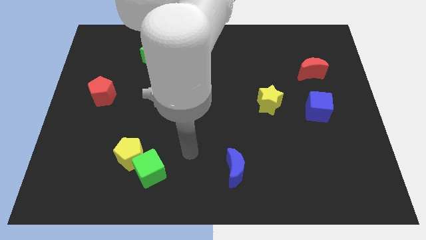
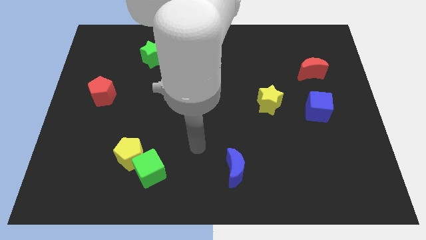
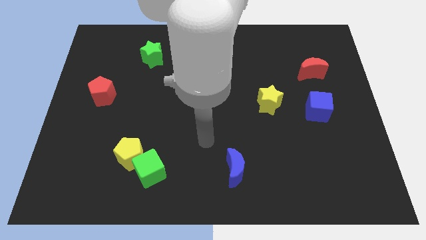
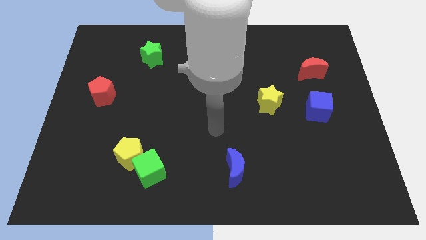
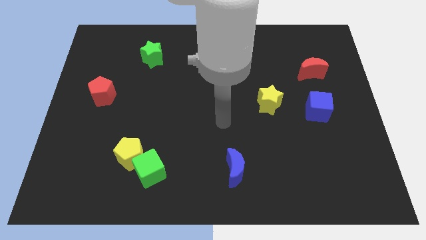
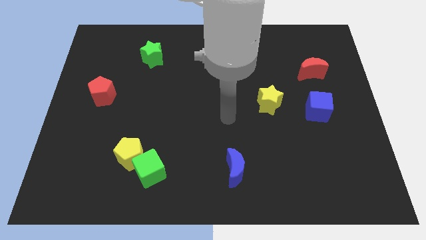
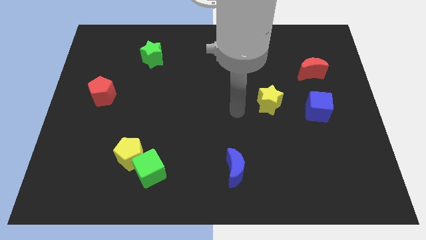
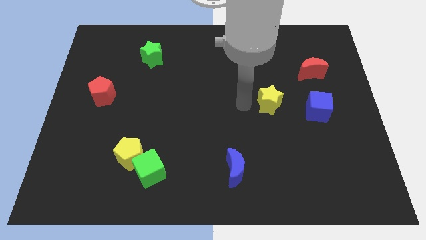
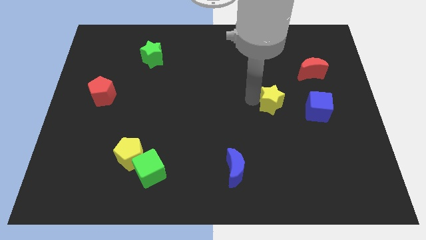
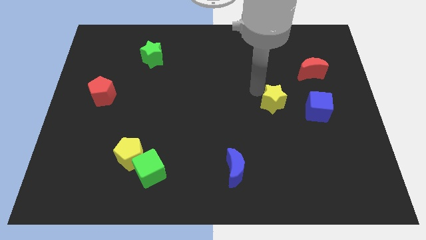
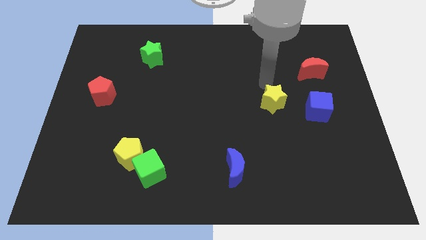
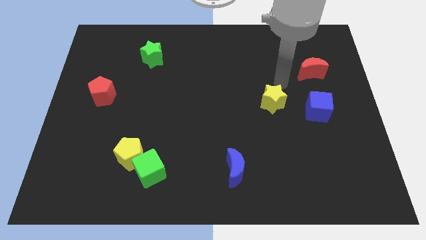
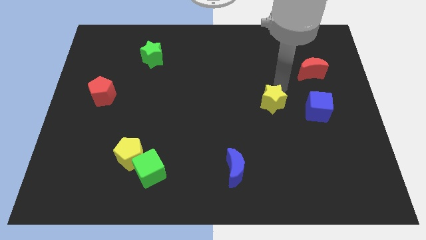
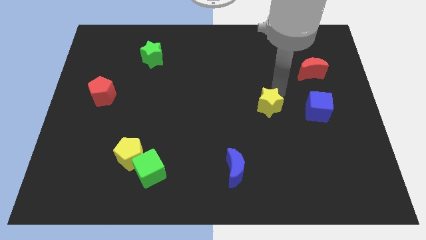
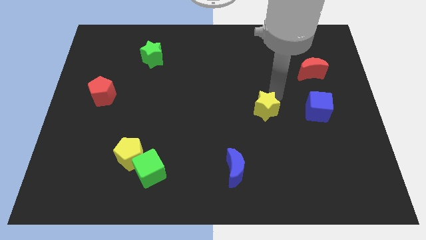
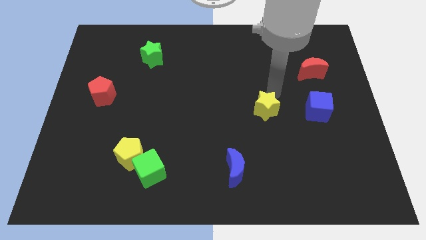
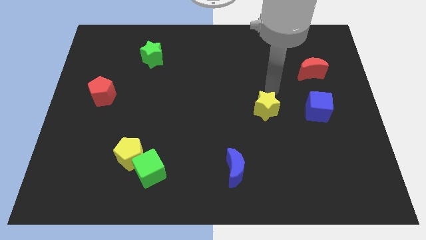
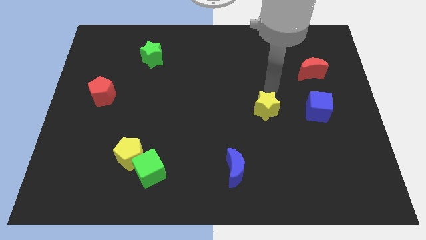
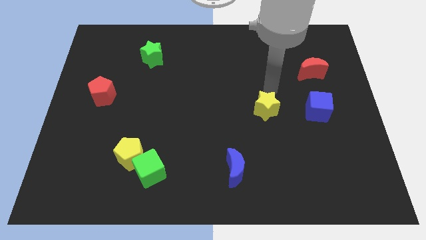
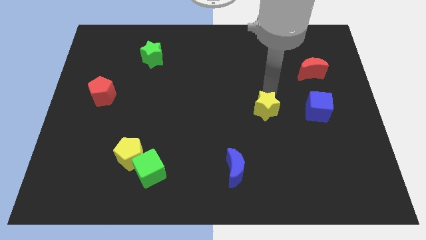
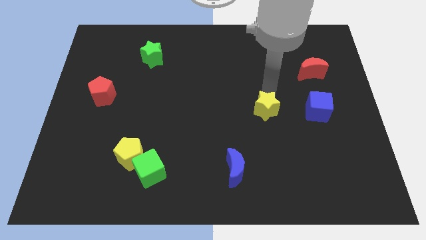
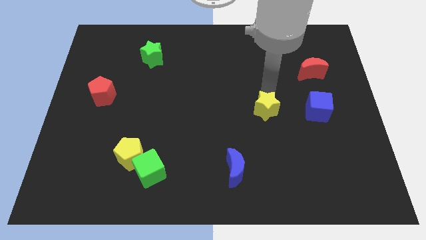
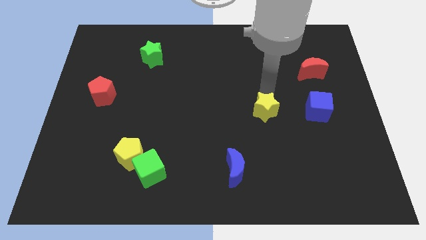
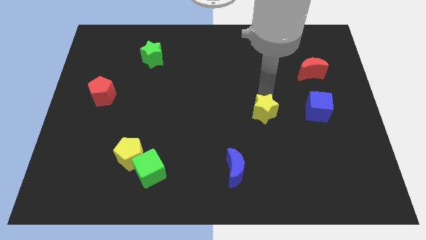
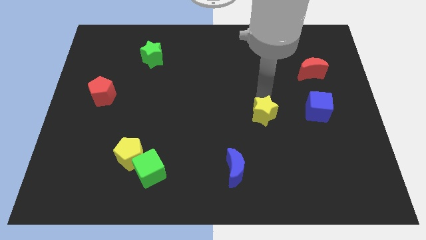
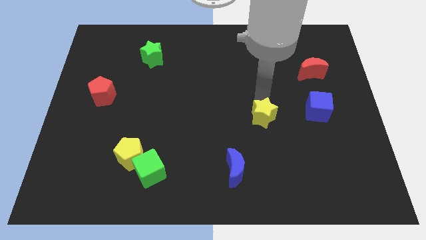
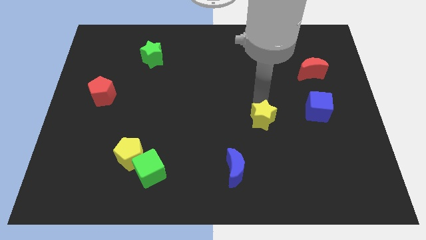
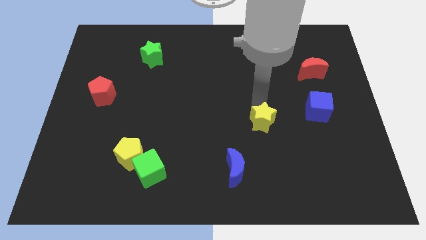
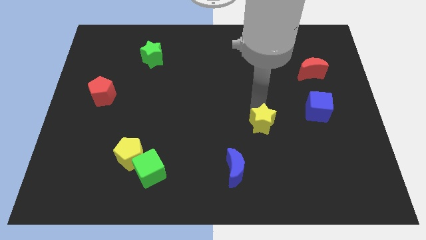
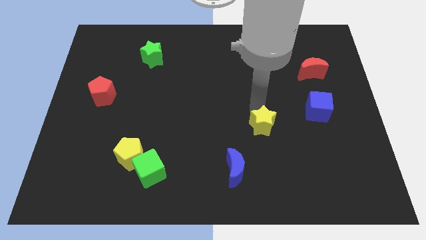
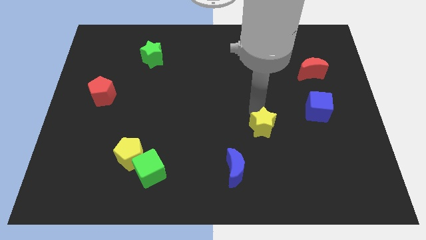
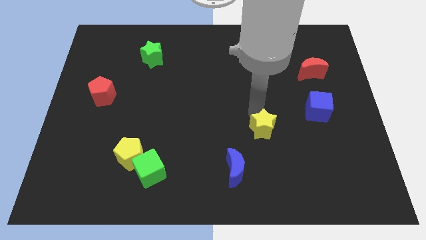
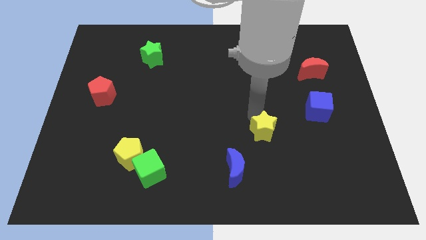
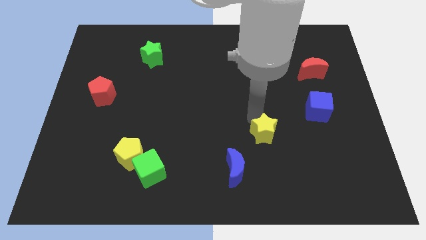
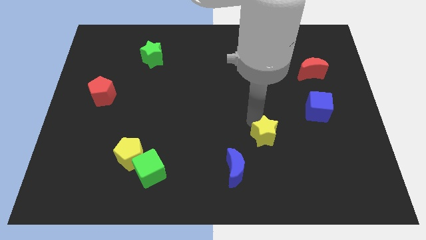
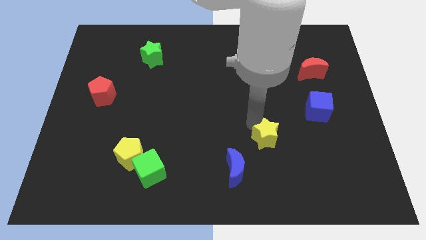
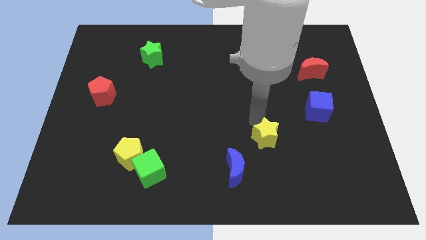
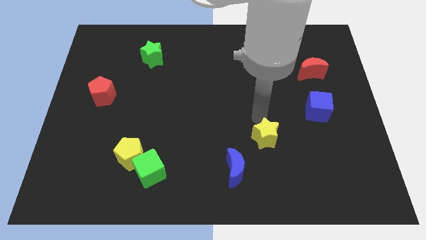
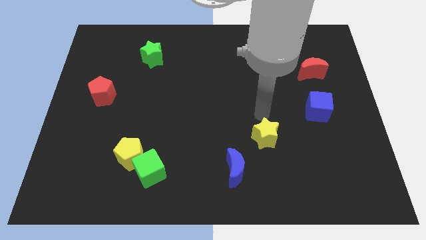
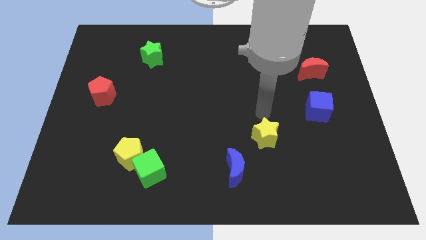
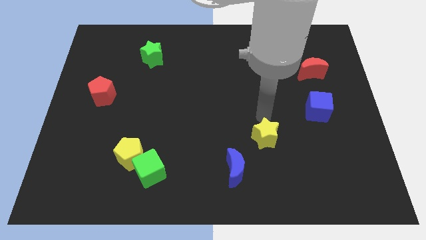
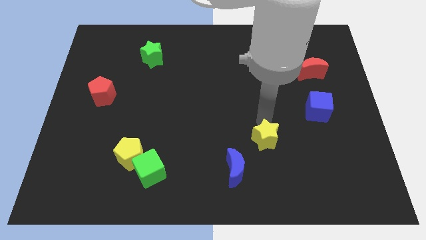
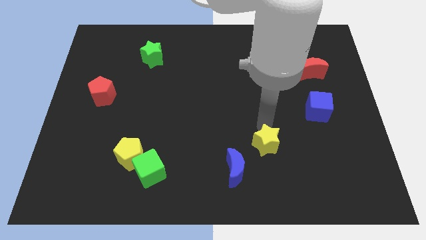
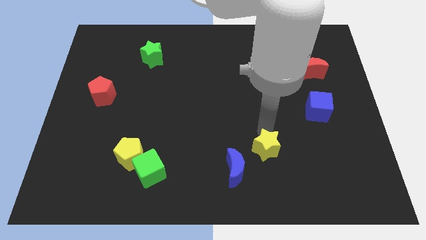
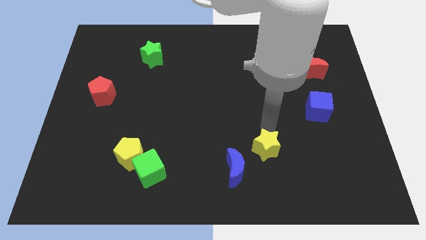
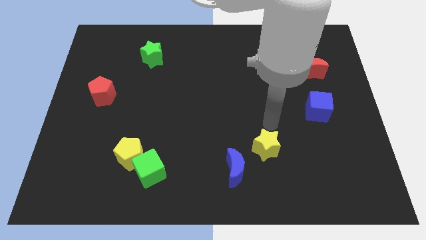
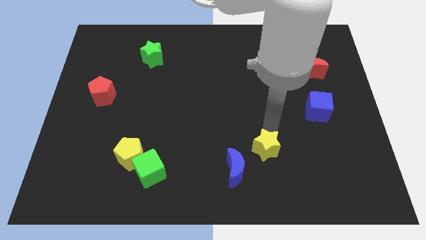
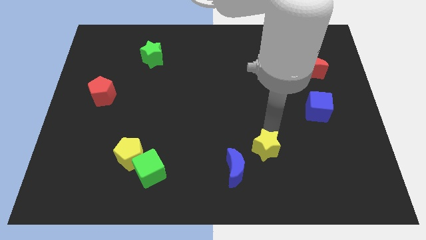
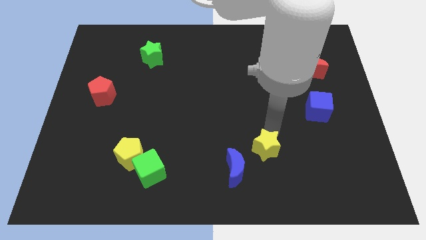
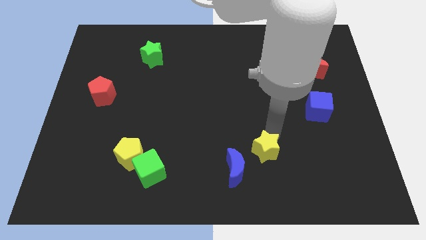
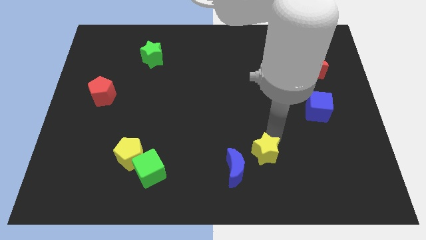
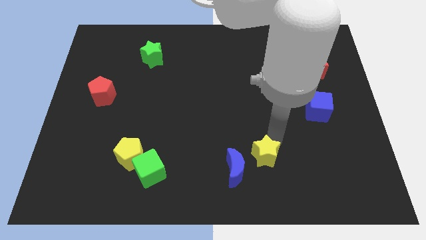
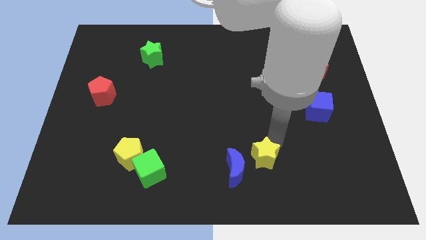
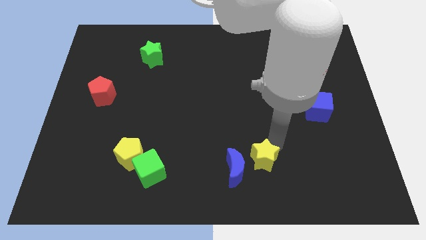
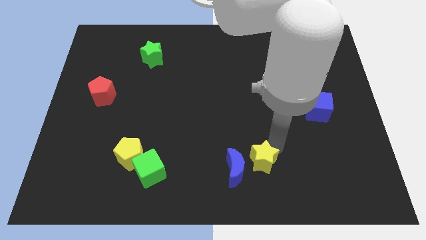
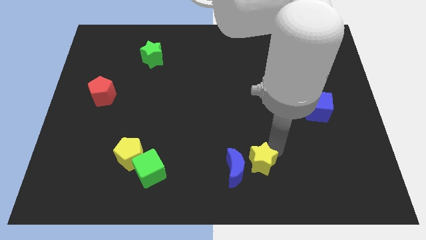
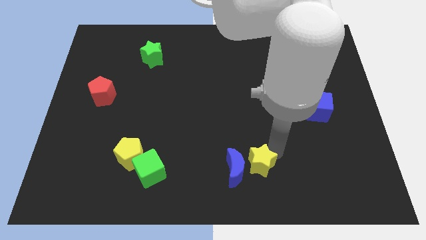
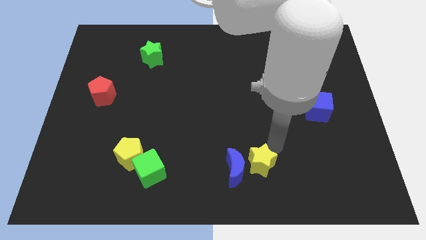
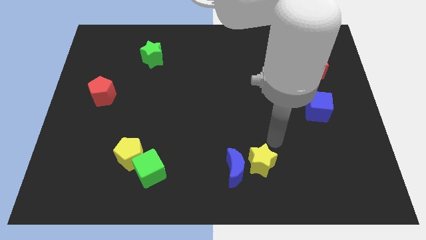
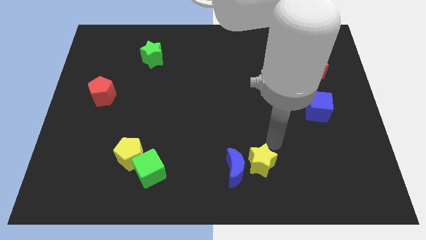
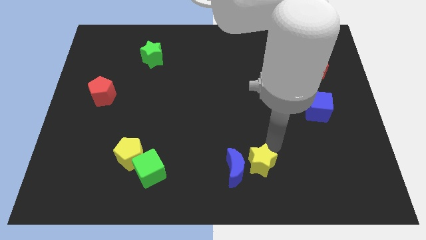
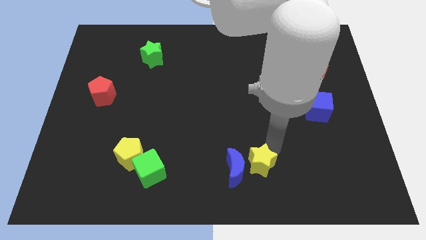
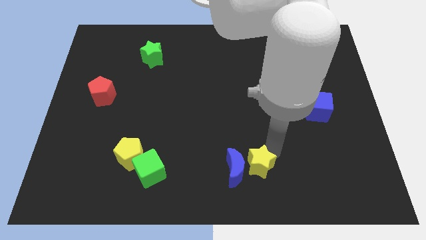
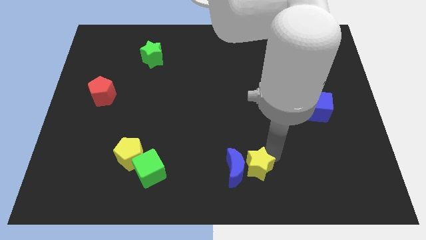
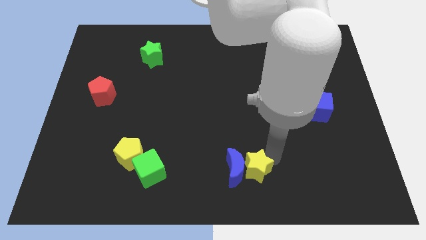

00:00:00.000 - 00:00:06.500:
slide the yellow star to the bottom

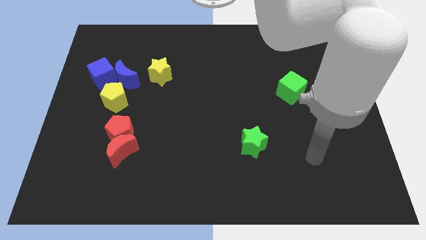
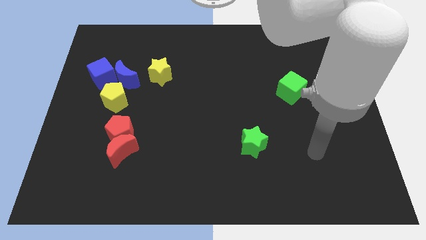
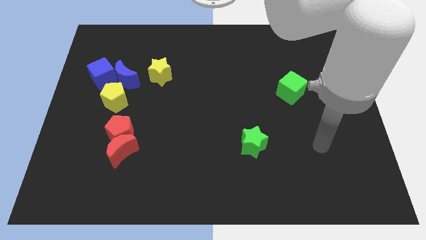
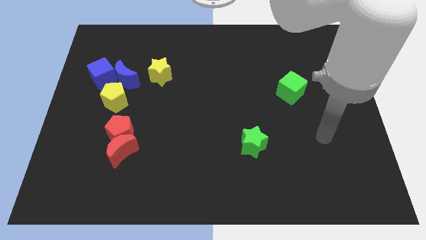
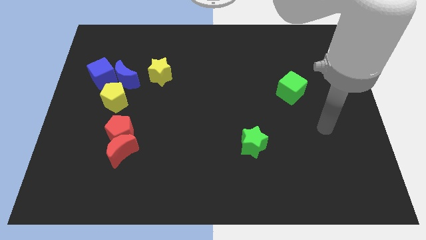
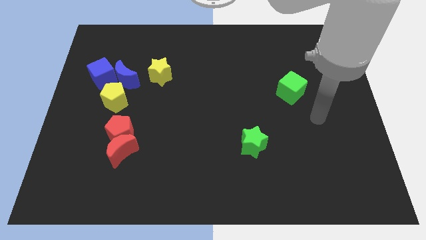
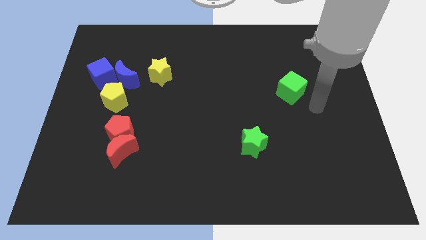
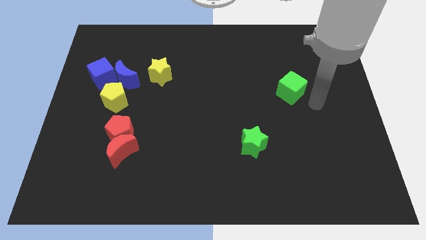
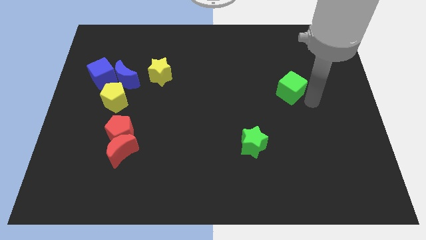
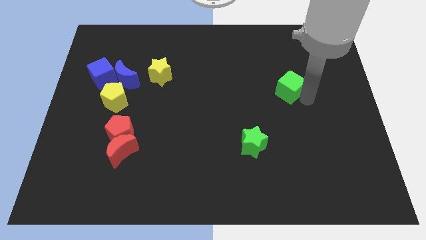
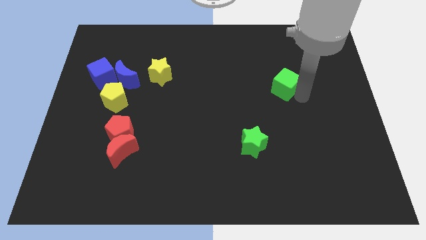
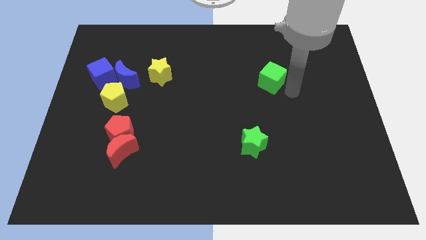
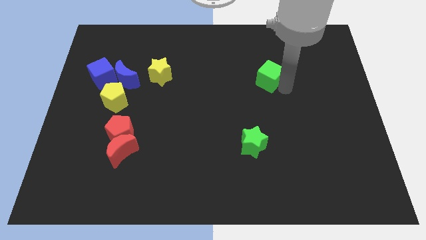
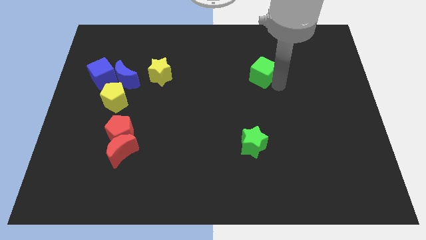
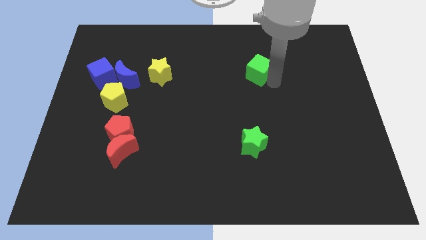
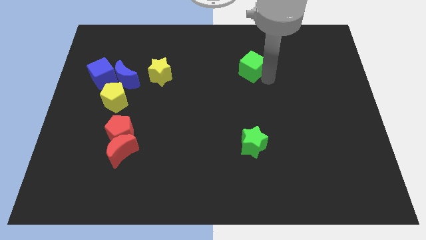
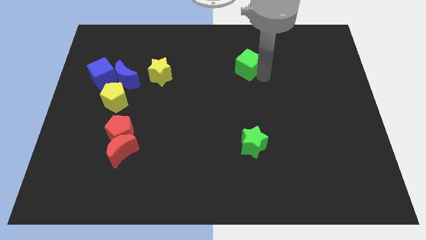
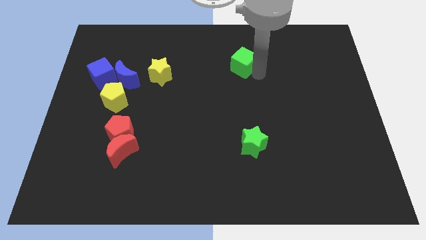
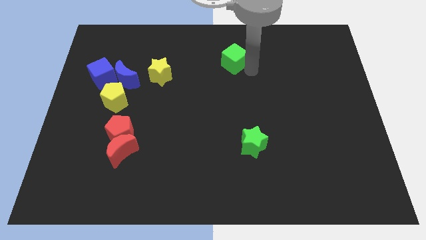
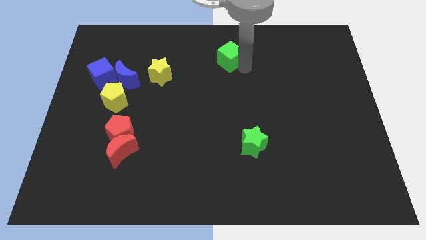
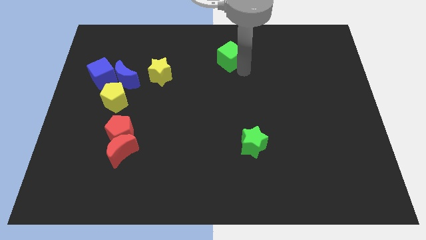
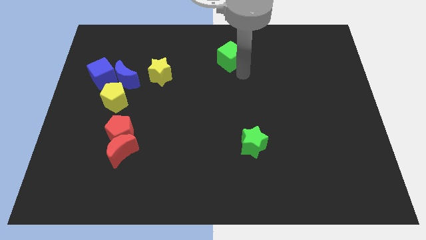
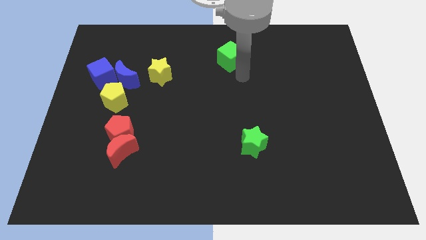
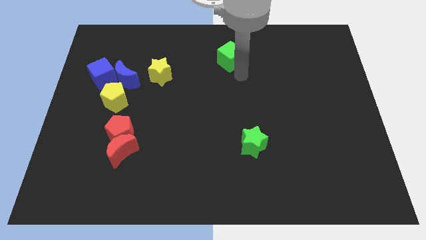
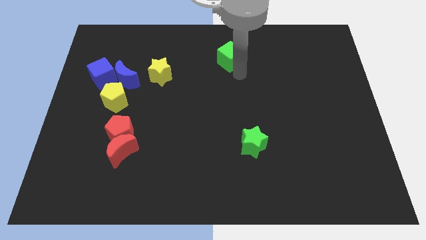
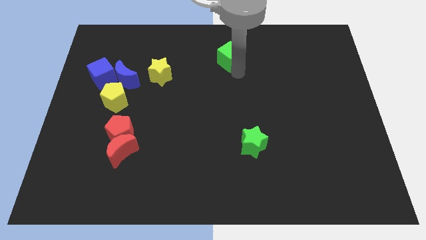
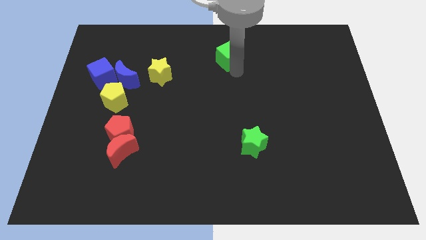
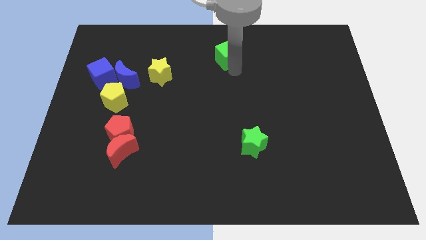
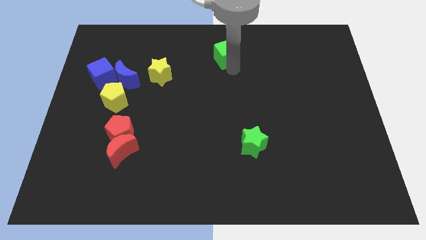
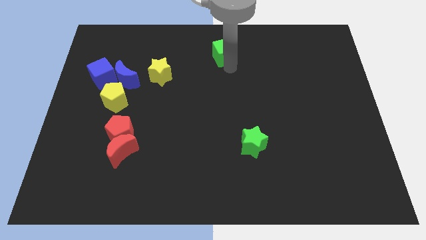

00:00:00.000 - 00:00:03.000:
push the green cube to the towards your base
